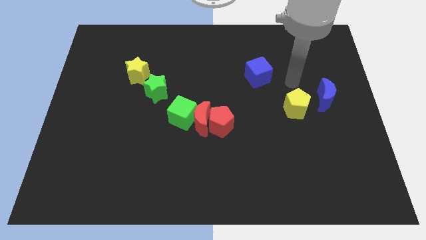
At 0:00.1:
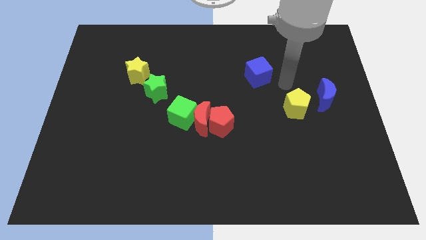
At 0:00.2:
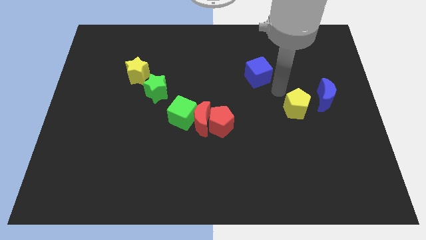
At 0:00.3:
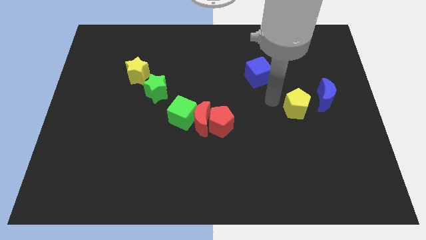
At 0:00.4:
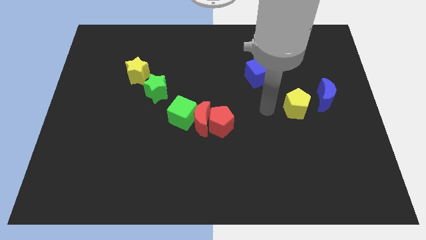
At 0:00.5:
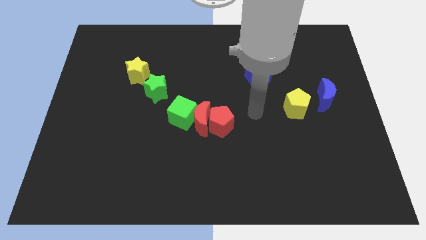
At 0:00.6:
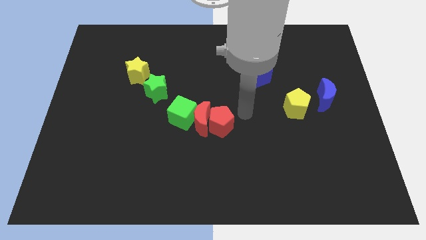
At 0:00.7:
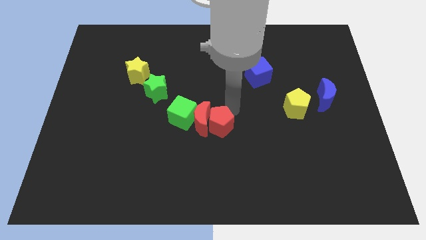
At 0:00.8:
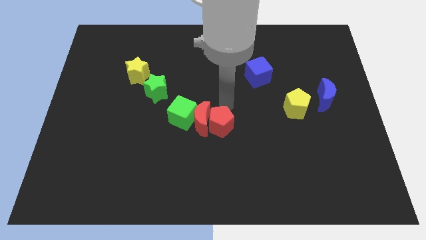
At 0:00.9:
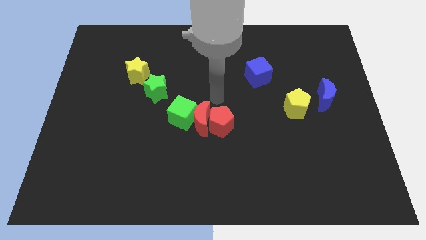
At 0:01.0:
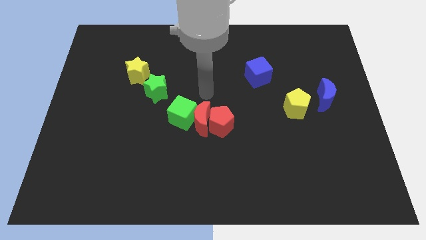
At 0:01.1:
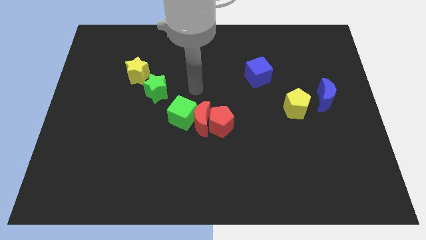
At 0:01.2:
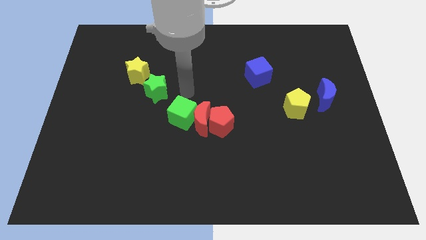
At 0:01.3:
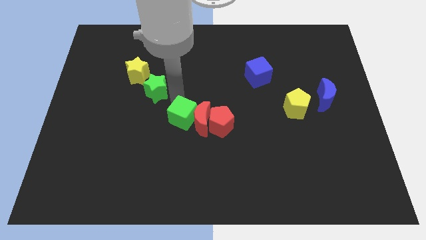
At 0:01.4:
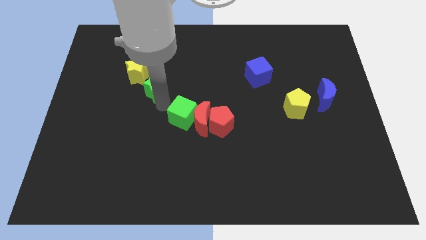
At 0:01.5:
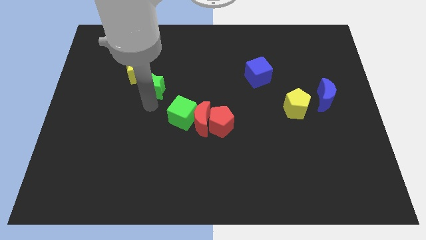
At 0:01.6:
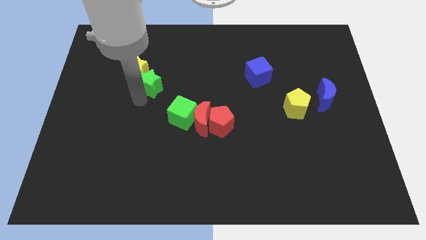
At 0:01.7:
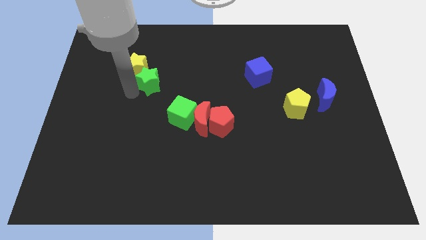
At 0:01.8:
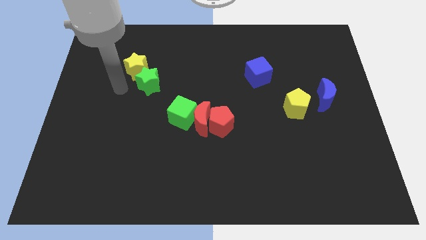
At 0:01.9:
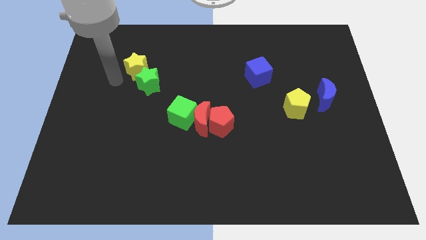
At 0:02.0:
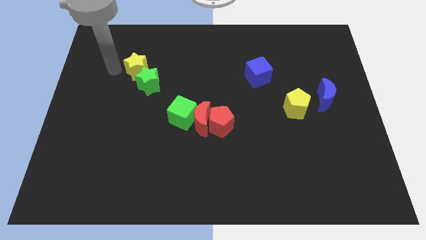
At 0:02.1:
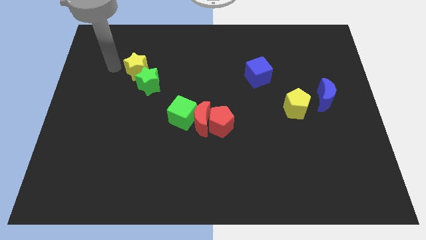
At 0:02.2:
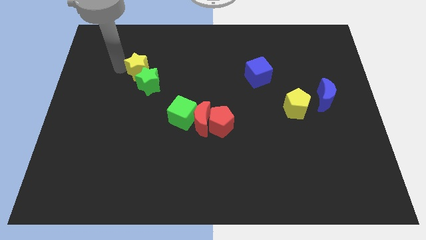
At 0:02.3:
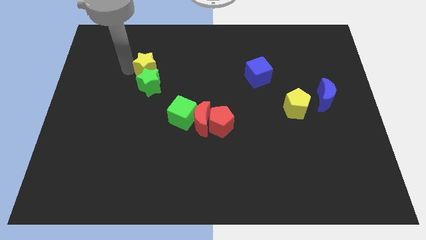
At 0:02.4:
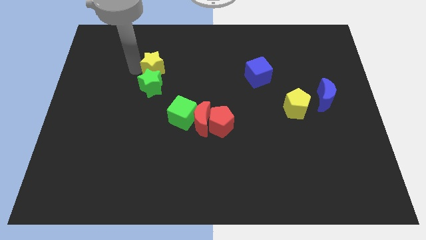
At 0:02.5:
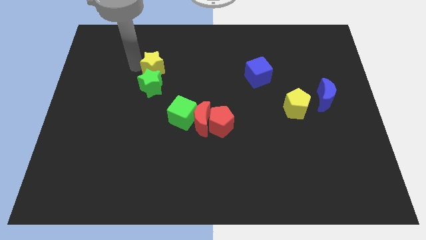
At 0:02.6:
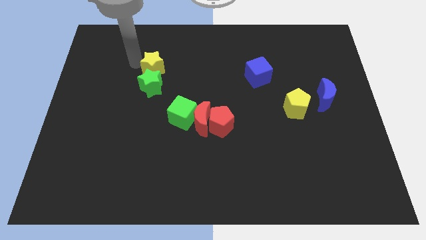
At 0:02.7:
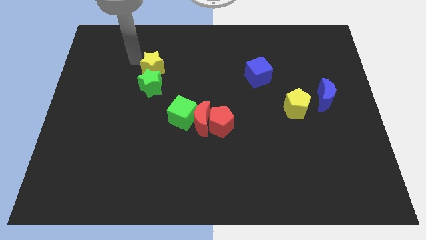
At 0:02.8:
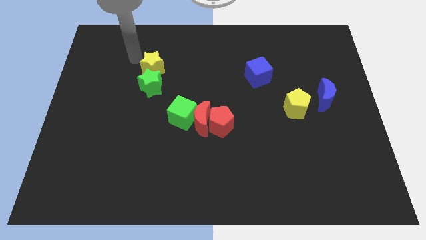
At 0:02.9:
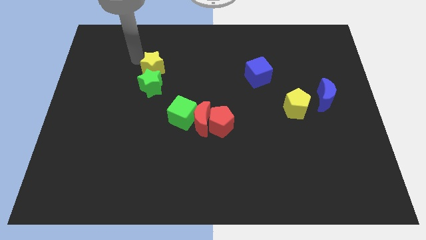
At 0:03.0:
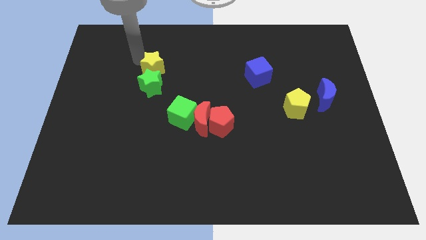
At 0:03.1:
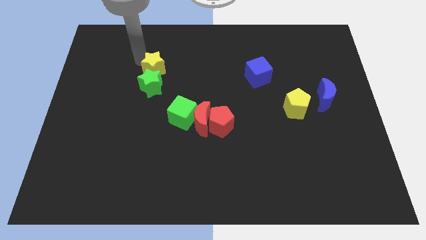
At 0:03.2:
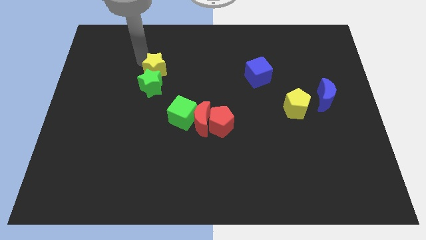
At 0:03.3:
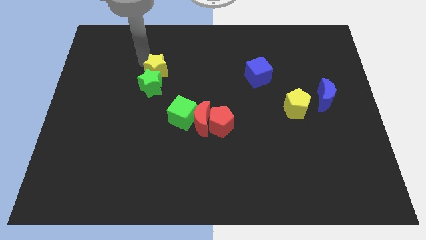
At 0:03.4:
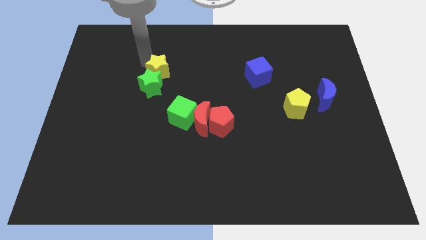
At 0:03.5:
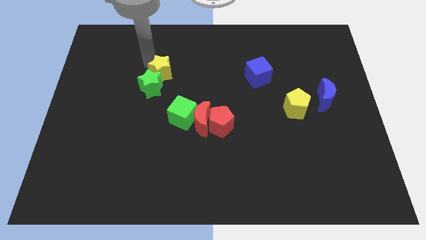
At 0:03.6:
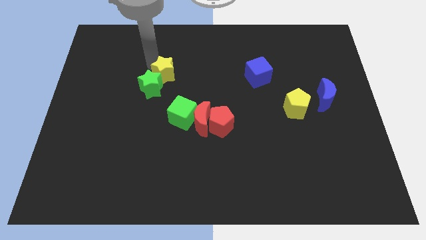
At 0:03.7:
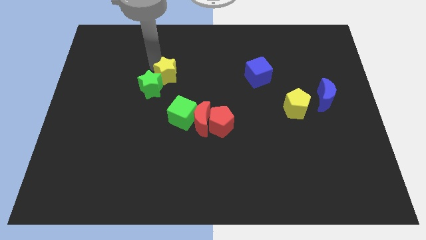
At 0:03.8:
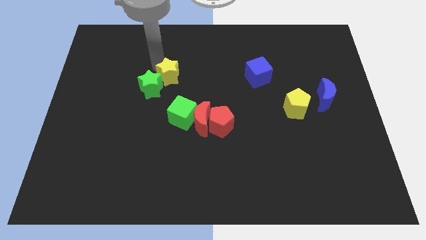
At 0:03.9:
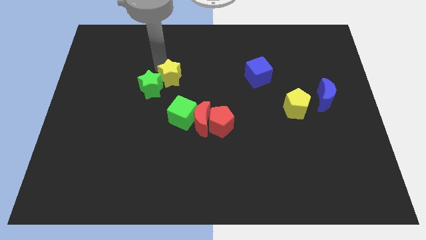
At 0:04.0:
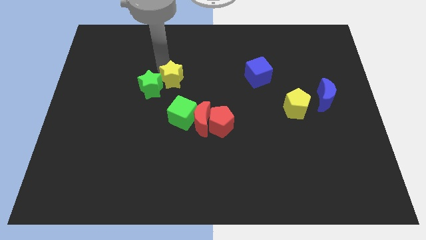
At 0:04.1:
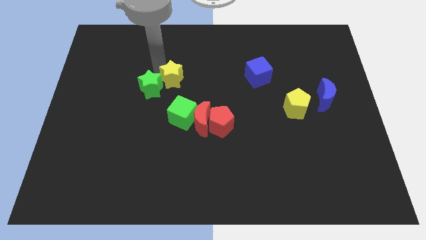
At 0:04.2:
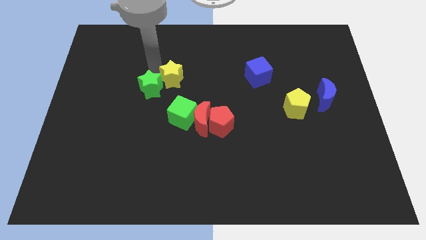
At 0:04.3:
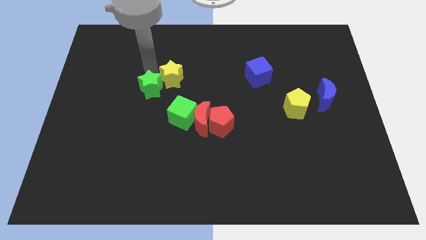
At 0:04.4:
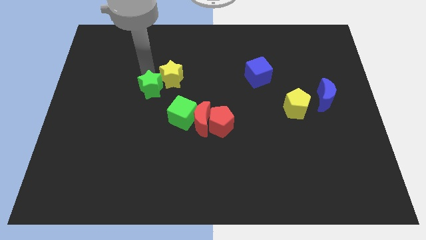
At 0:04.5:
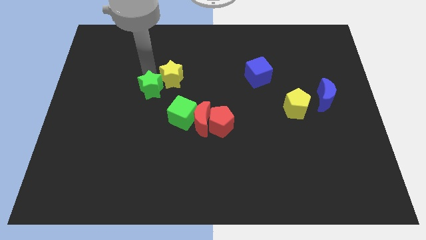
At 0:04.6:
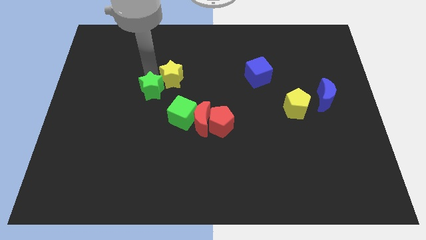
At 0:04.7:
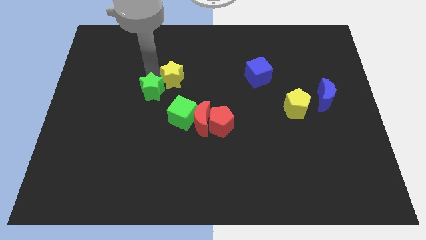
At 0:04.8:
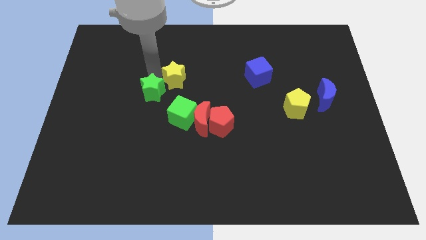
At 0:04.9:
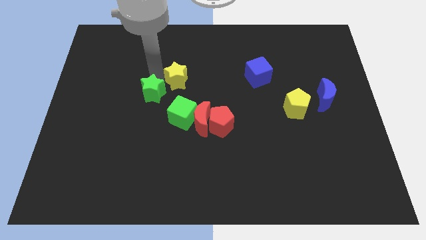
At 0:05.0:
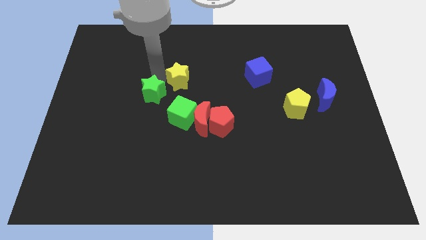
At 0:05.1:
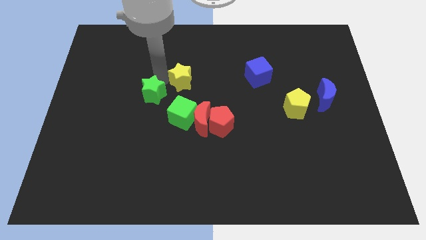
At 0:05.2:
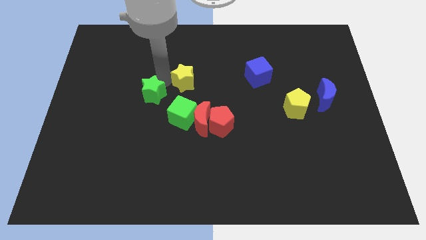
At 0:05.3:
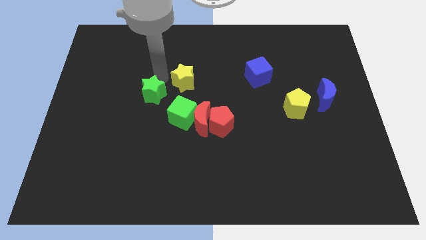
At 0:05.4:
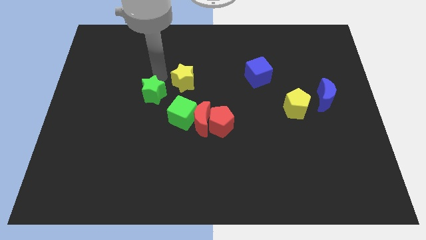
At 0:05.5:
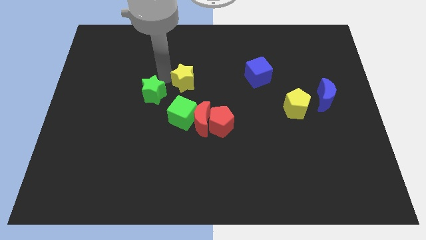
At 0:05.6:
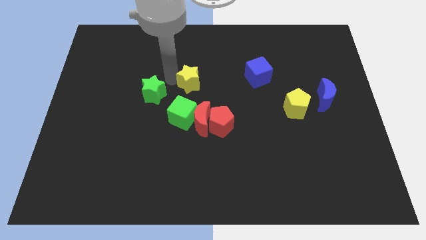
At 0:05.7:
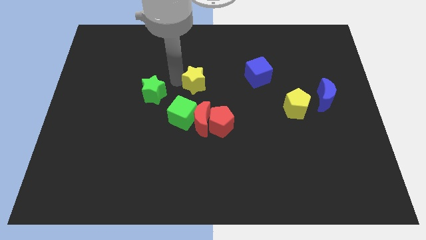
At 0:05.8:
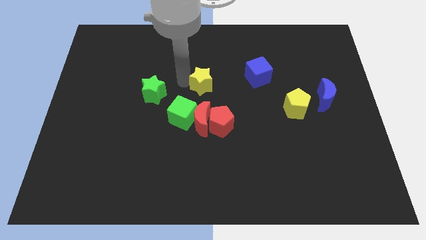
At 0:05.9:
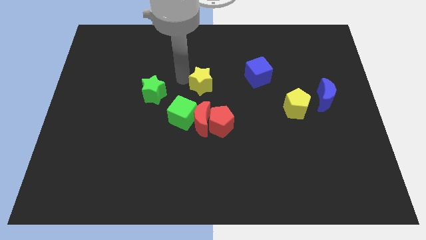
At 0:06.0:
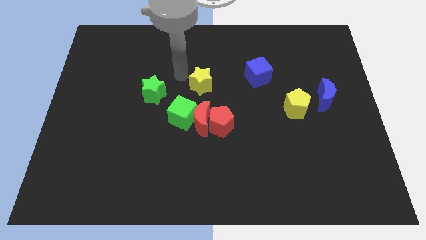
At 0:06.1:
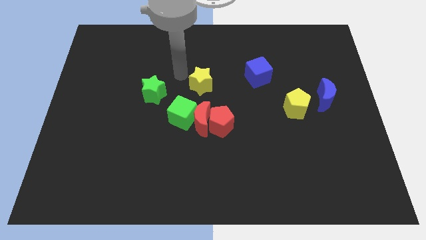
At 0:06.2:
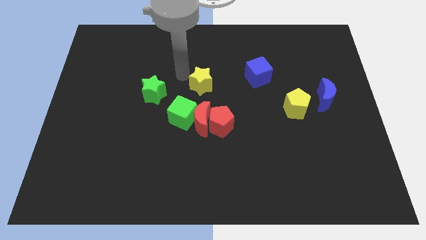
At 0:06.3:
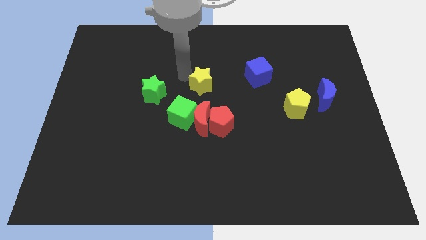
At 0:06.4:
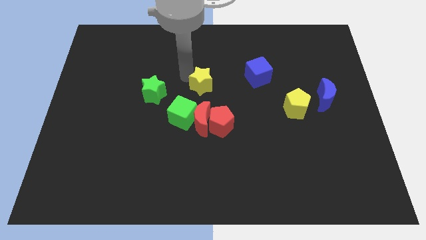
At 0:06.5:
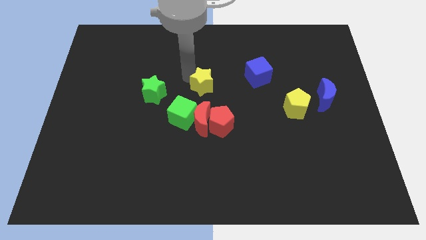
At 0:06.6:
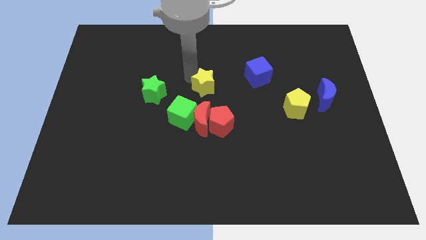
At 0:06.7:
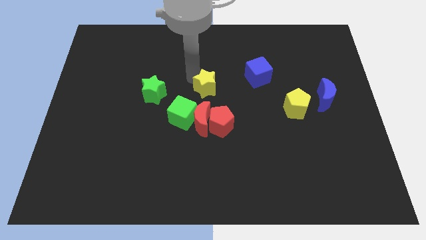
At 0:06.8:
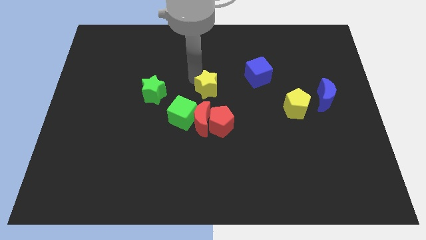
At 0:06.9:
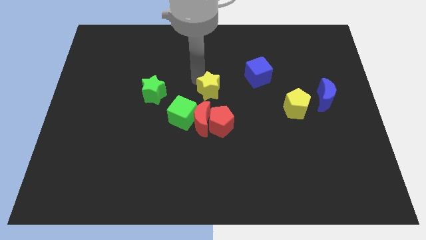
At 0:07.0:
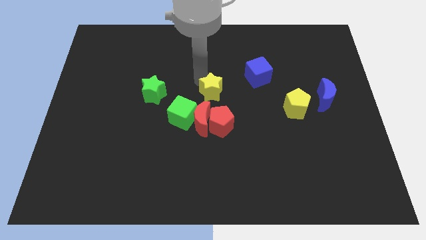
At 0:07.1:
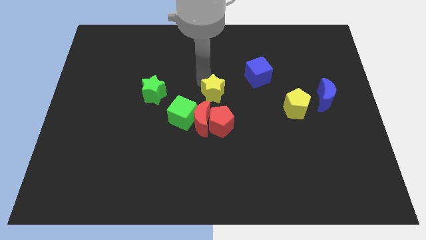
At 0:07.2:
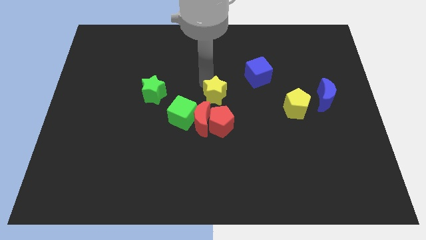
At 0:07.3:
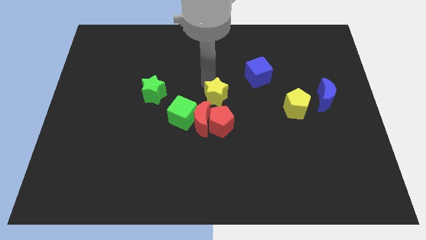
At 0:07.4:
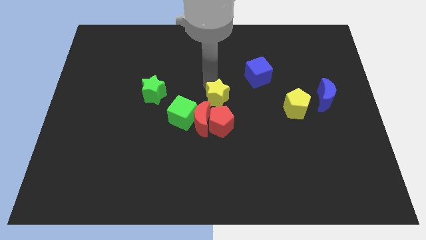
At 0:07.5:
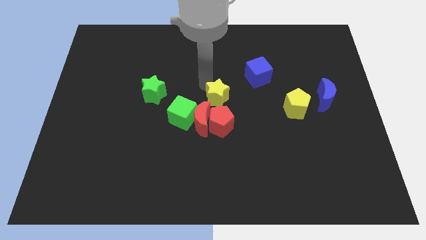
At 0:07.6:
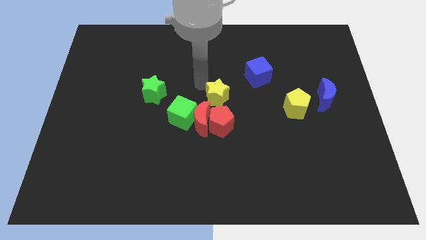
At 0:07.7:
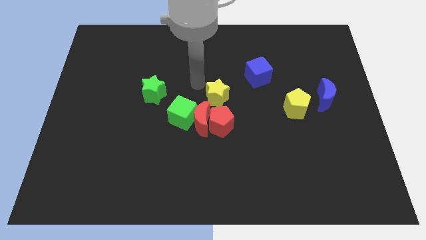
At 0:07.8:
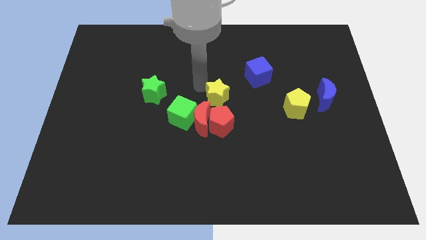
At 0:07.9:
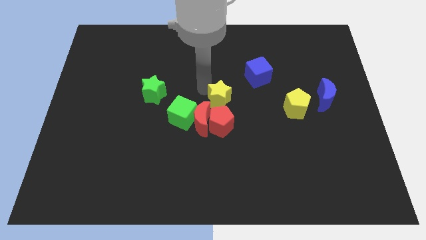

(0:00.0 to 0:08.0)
push the yellow star to the right of the green cube
